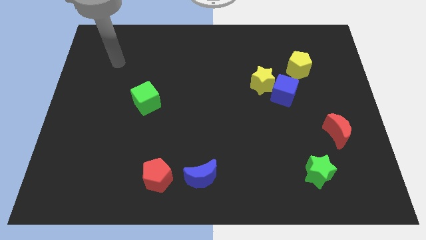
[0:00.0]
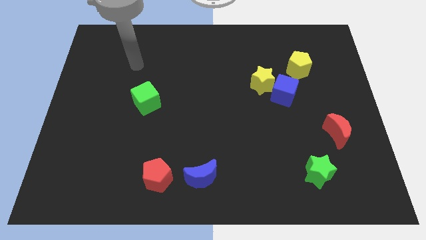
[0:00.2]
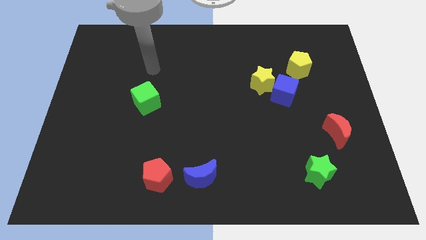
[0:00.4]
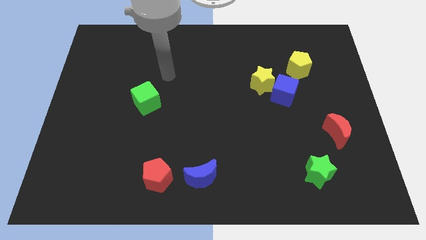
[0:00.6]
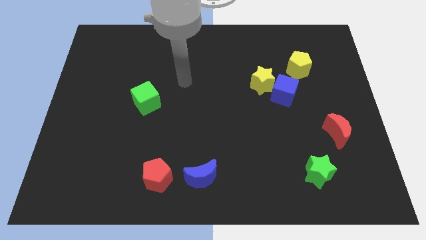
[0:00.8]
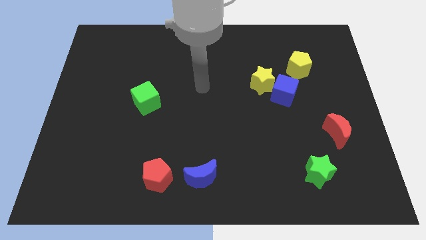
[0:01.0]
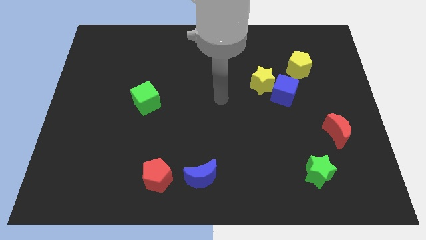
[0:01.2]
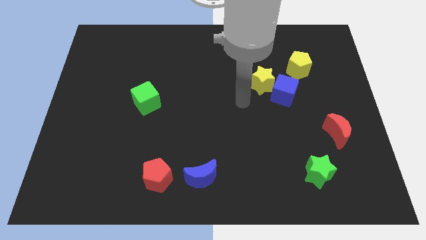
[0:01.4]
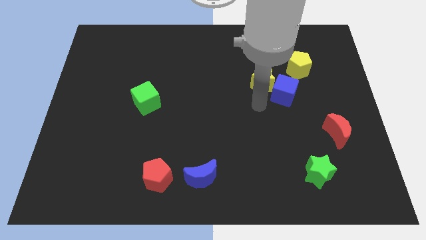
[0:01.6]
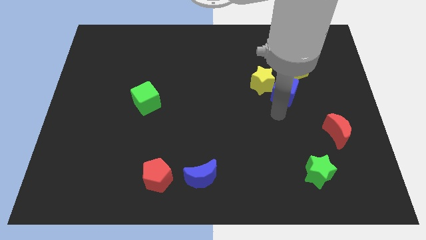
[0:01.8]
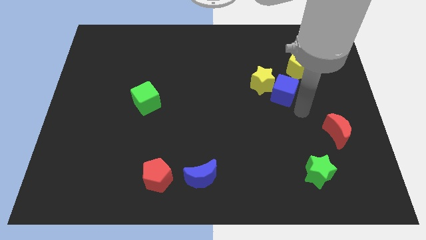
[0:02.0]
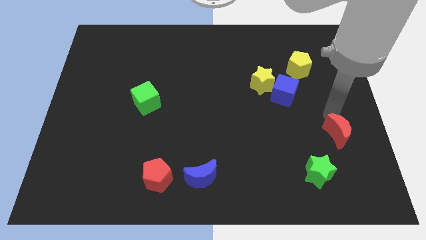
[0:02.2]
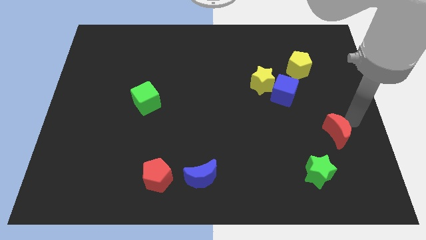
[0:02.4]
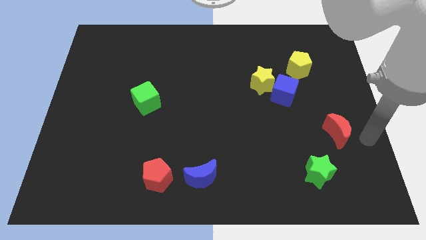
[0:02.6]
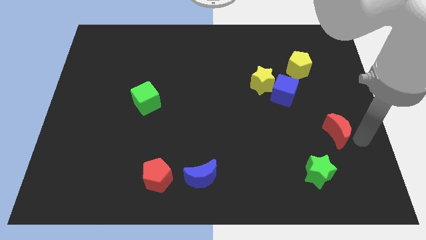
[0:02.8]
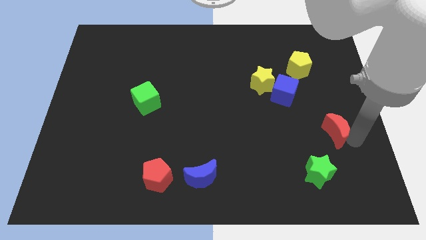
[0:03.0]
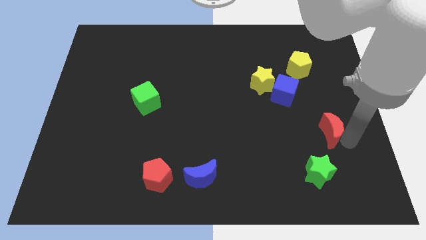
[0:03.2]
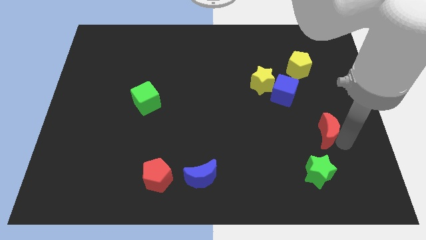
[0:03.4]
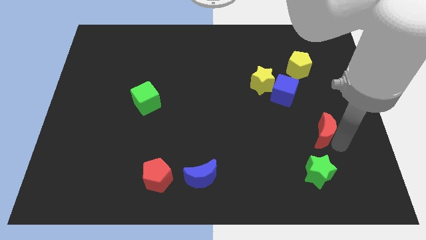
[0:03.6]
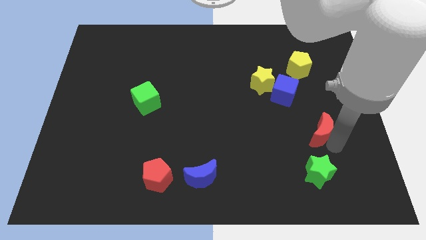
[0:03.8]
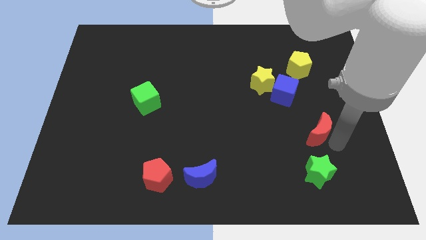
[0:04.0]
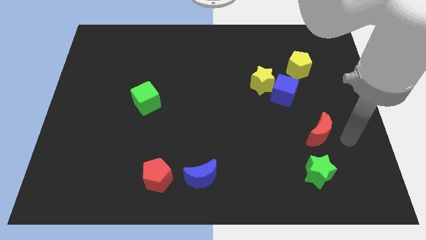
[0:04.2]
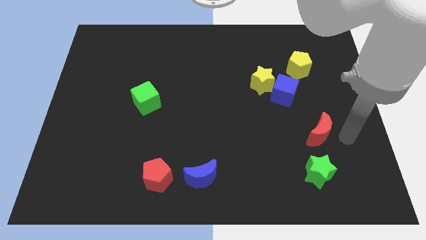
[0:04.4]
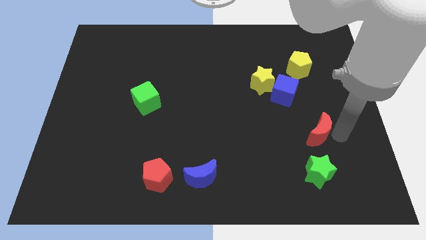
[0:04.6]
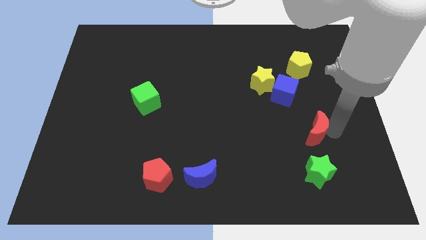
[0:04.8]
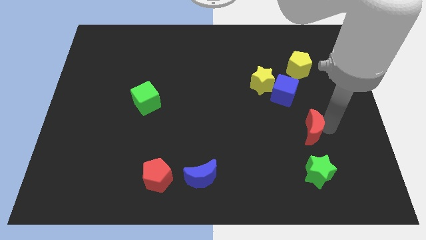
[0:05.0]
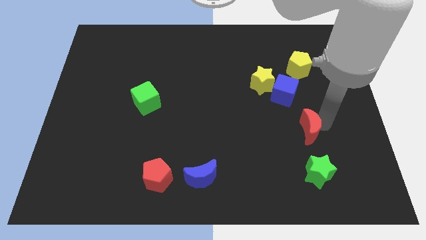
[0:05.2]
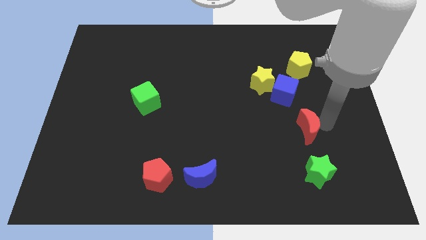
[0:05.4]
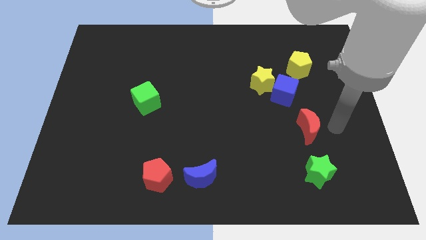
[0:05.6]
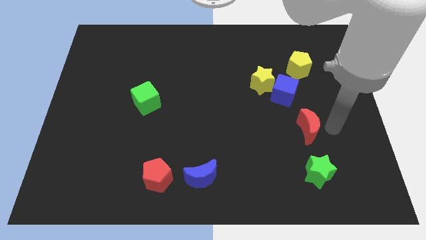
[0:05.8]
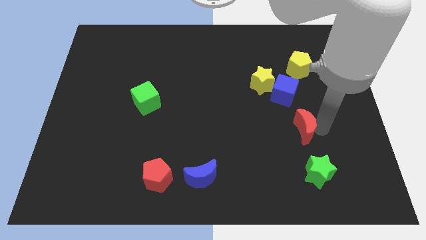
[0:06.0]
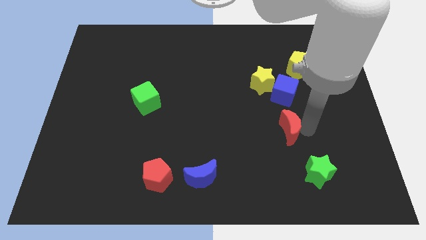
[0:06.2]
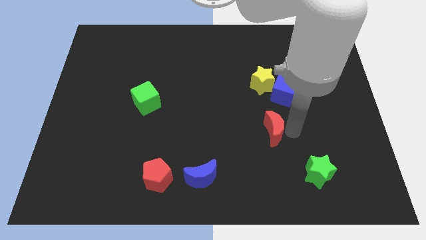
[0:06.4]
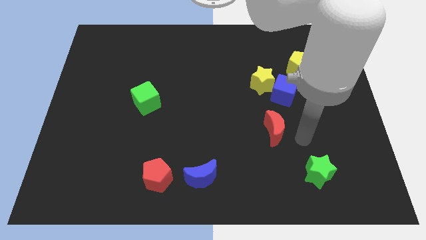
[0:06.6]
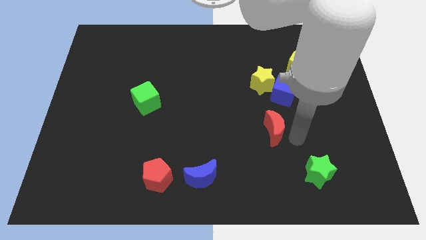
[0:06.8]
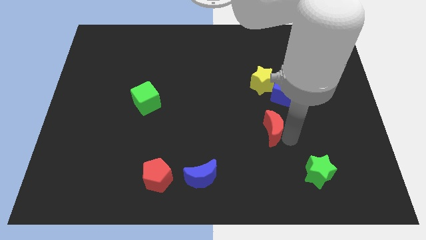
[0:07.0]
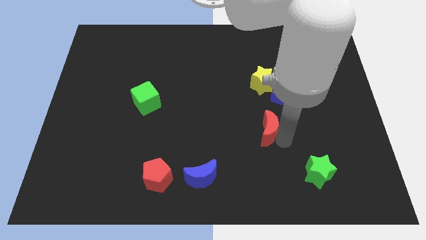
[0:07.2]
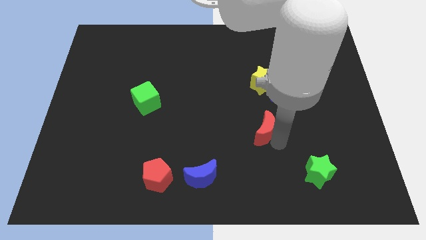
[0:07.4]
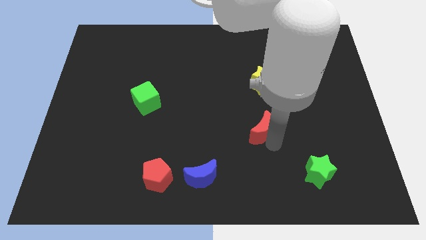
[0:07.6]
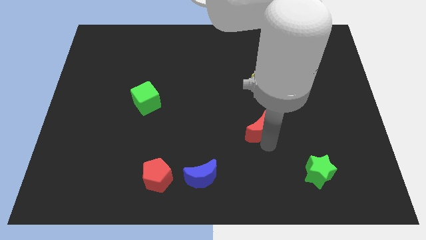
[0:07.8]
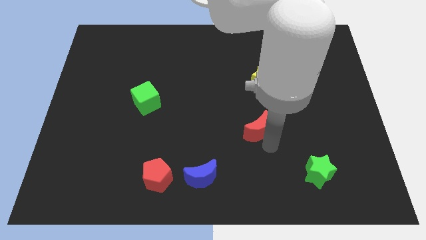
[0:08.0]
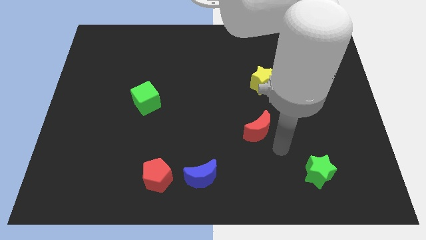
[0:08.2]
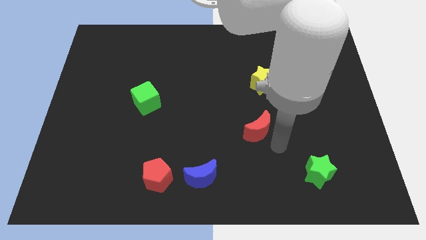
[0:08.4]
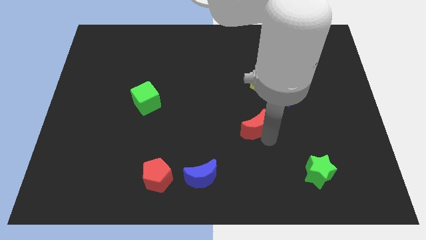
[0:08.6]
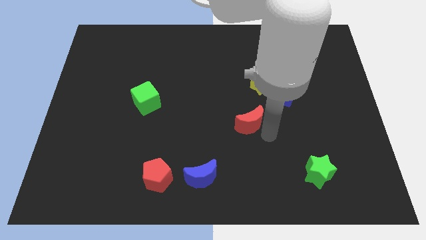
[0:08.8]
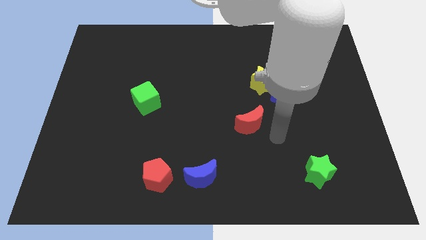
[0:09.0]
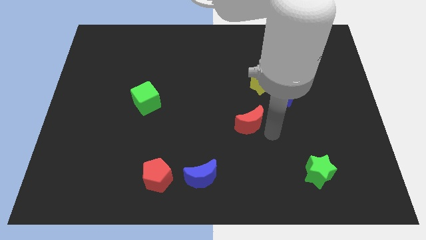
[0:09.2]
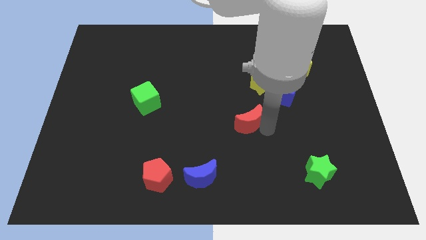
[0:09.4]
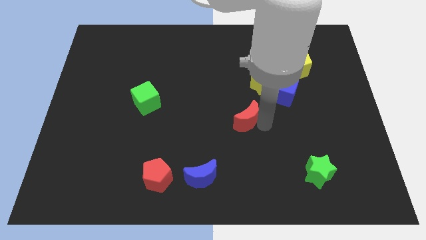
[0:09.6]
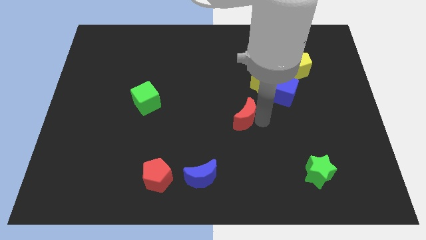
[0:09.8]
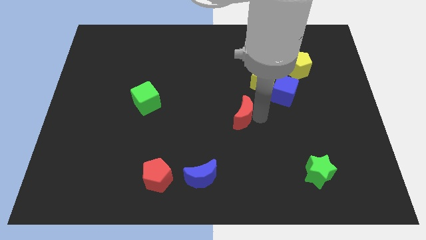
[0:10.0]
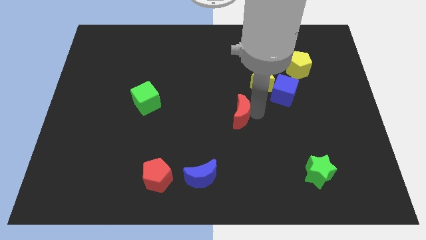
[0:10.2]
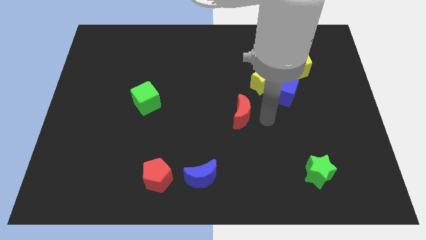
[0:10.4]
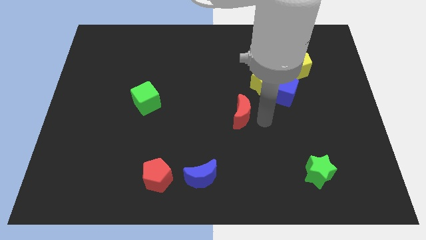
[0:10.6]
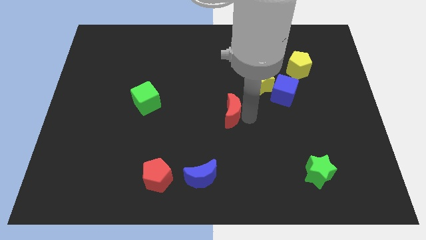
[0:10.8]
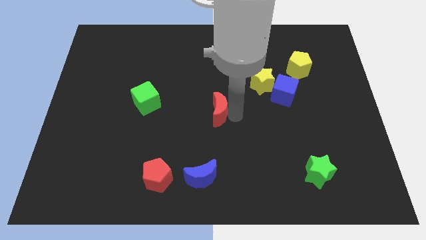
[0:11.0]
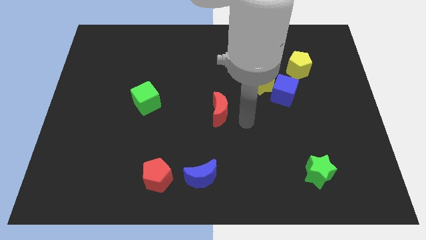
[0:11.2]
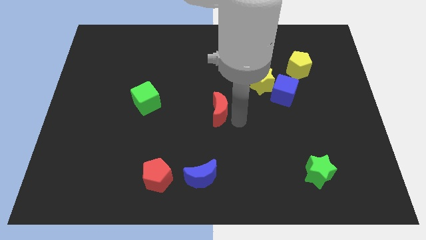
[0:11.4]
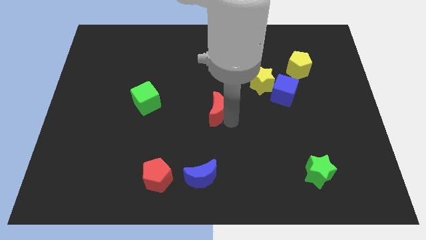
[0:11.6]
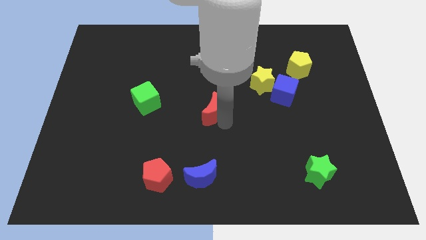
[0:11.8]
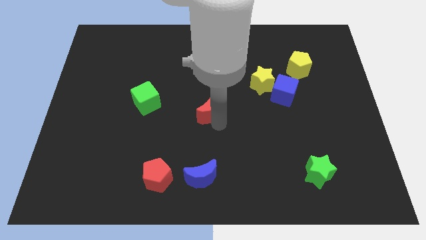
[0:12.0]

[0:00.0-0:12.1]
slide the red moon just right of the green cube

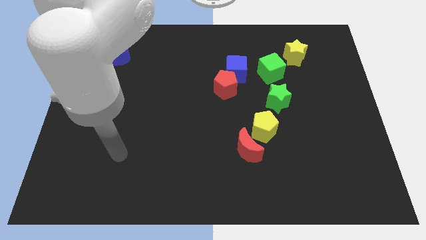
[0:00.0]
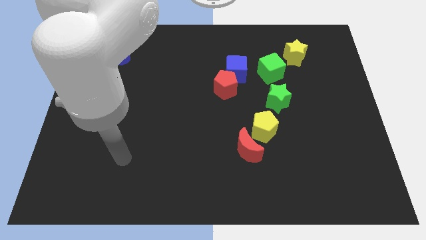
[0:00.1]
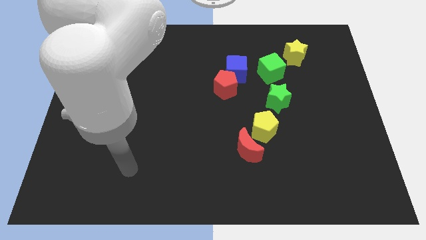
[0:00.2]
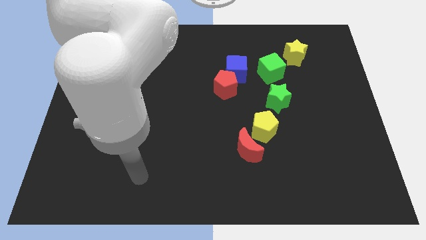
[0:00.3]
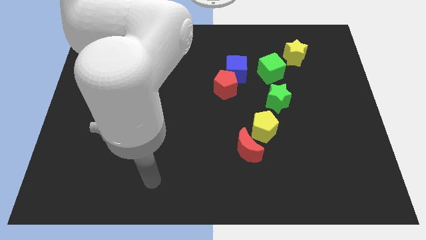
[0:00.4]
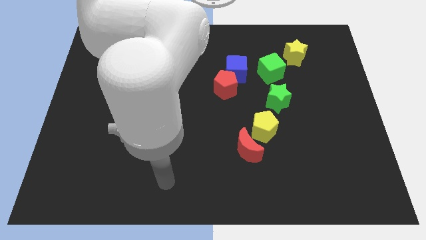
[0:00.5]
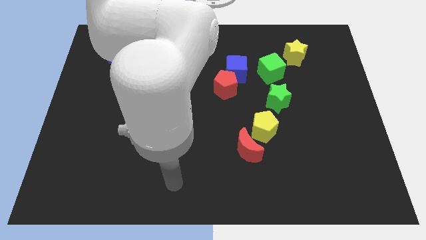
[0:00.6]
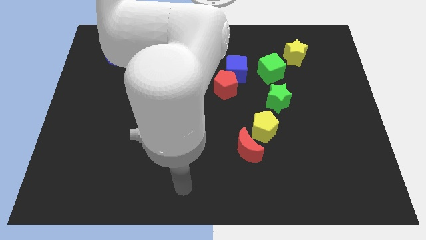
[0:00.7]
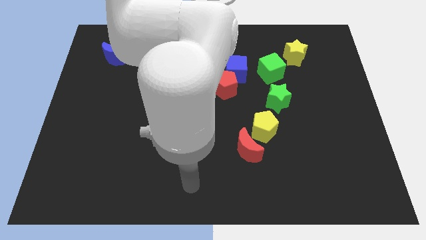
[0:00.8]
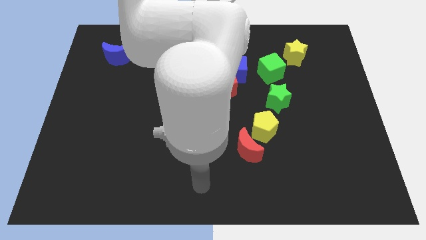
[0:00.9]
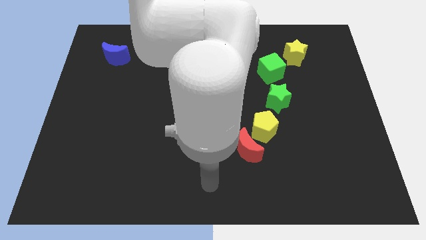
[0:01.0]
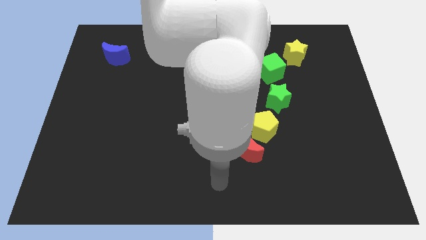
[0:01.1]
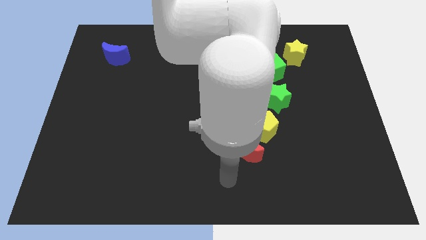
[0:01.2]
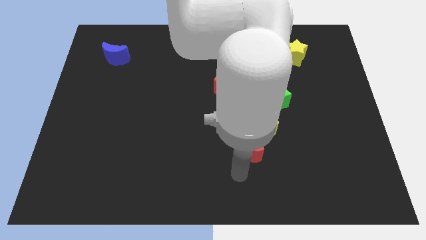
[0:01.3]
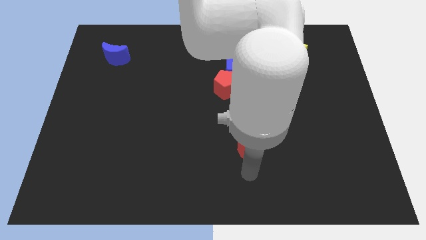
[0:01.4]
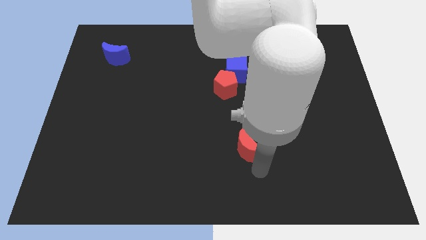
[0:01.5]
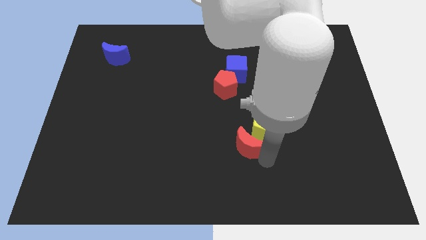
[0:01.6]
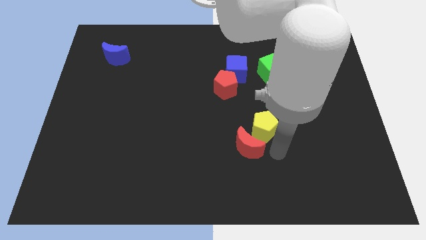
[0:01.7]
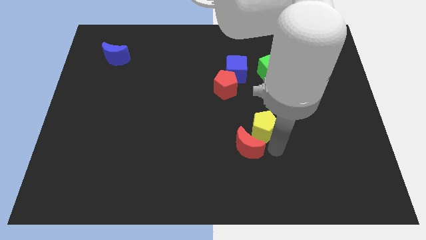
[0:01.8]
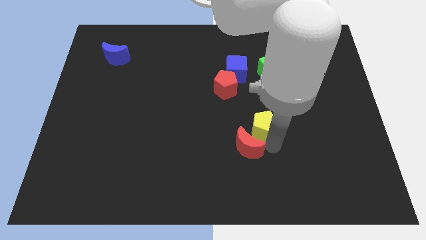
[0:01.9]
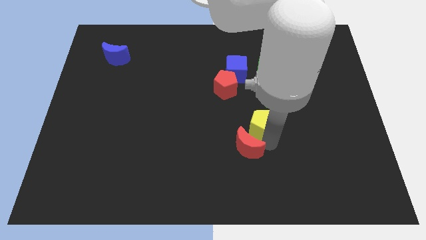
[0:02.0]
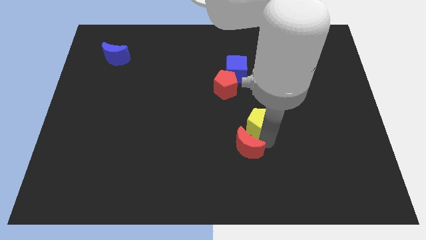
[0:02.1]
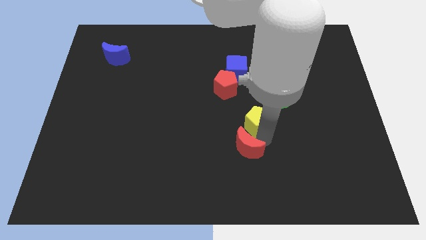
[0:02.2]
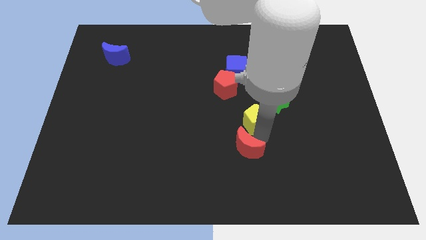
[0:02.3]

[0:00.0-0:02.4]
push the yellow pentagon diagonally down and to the right of the red pentagon
